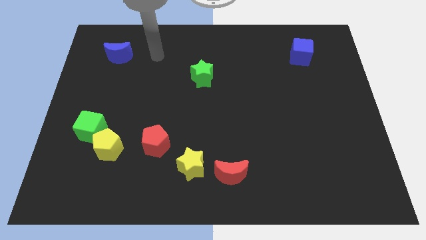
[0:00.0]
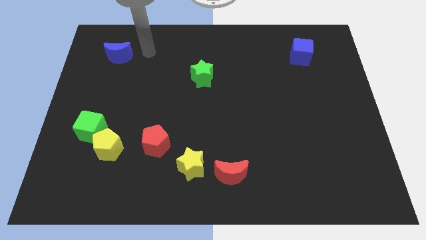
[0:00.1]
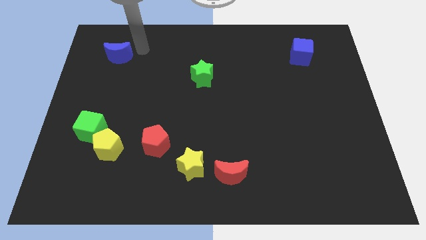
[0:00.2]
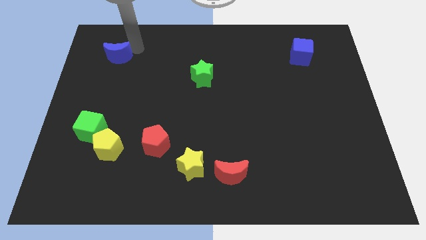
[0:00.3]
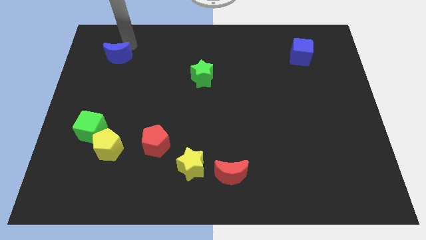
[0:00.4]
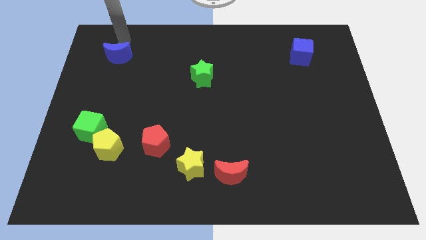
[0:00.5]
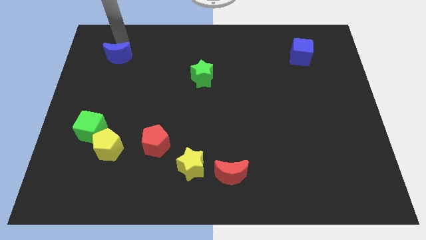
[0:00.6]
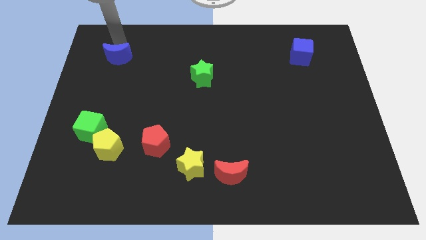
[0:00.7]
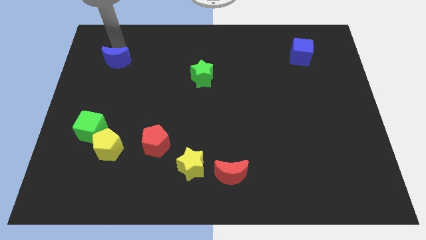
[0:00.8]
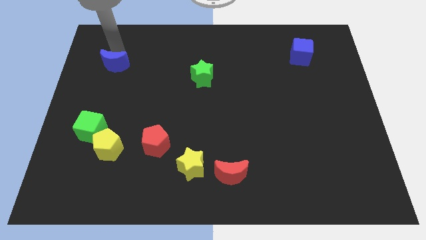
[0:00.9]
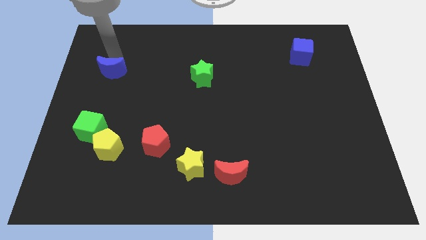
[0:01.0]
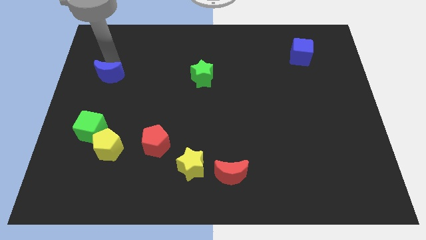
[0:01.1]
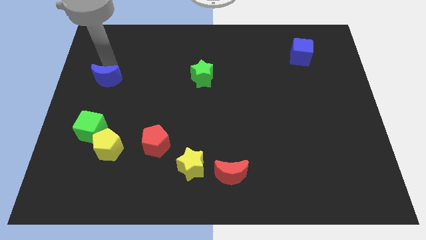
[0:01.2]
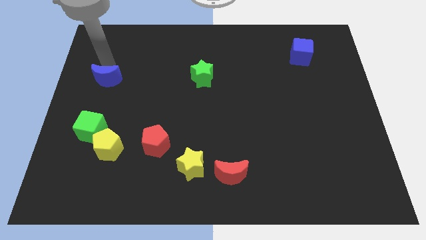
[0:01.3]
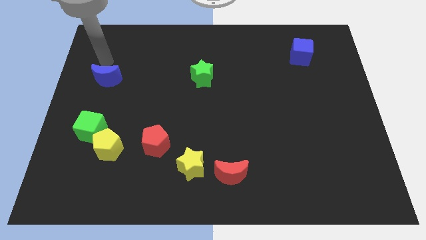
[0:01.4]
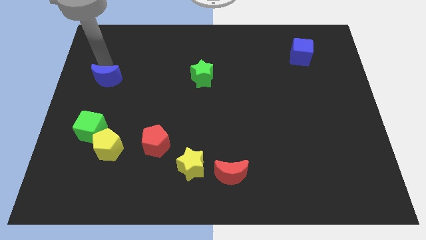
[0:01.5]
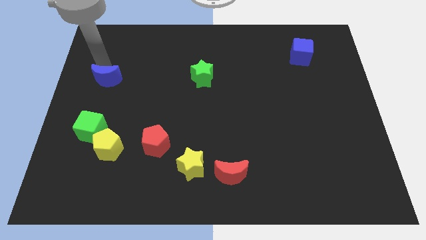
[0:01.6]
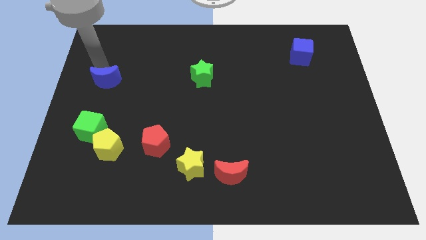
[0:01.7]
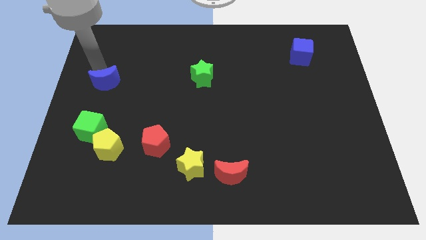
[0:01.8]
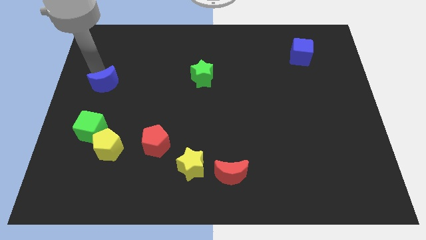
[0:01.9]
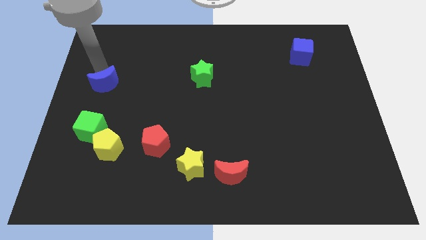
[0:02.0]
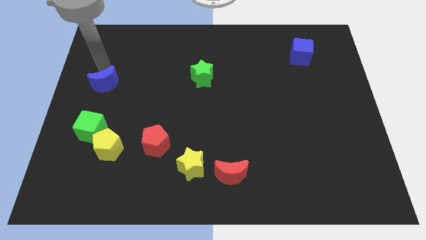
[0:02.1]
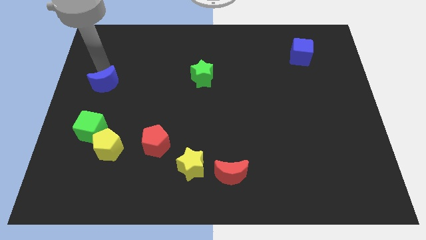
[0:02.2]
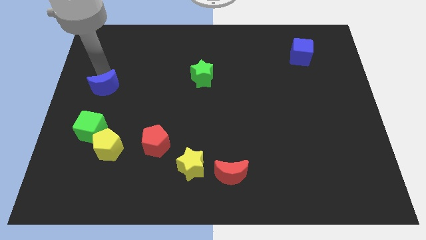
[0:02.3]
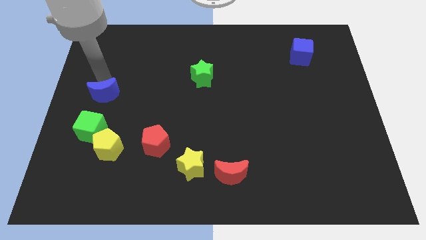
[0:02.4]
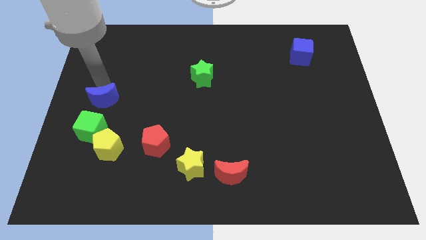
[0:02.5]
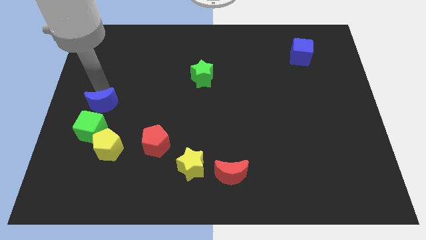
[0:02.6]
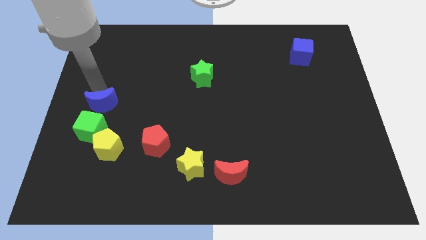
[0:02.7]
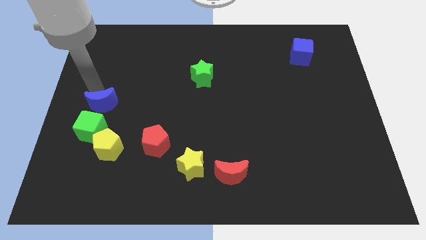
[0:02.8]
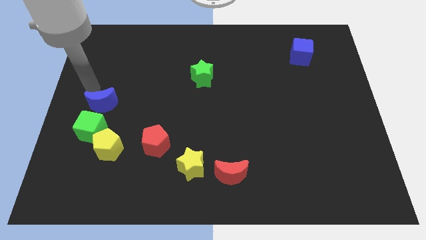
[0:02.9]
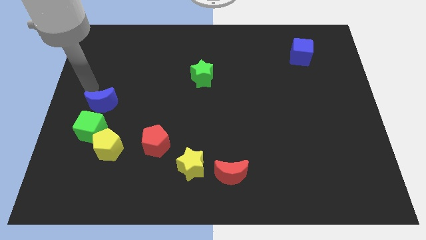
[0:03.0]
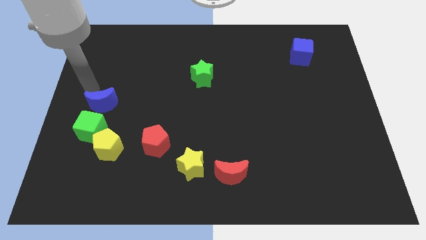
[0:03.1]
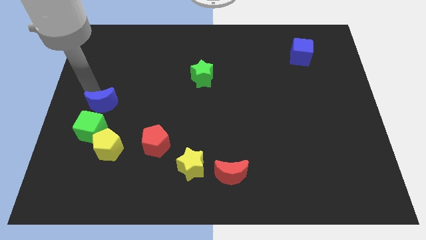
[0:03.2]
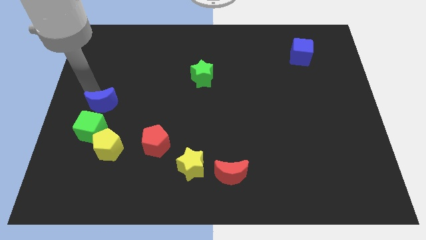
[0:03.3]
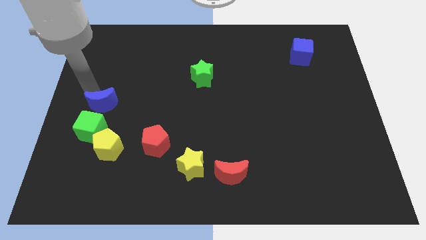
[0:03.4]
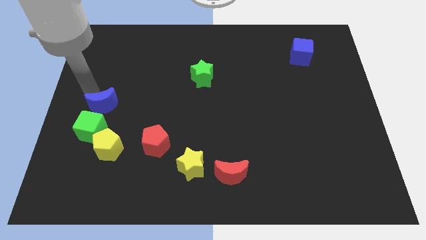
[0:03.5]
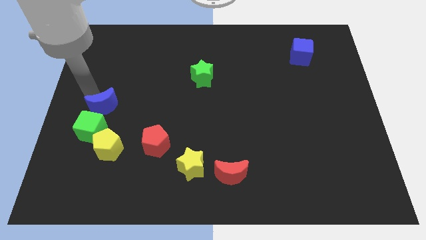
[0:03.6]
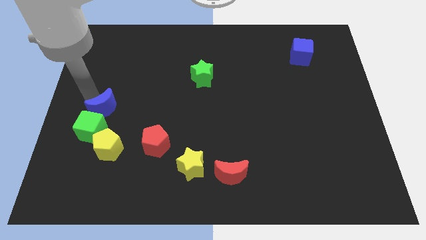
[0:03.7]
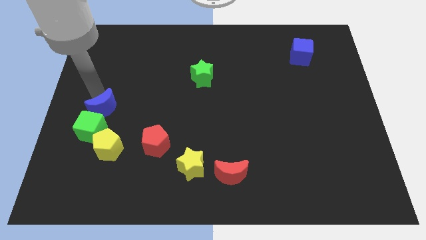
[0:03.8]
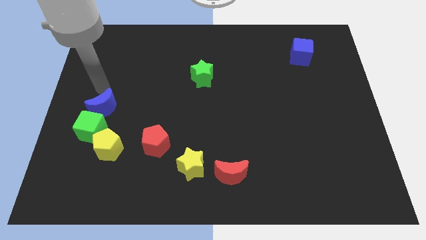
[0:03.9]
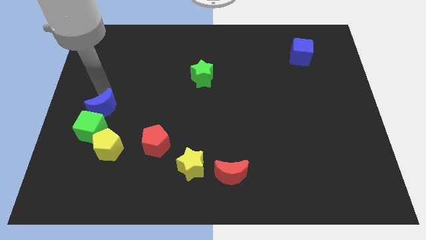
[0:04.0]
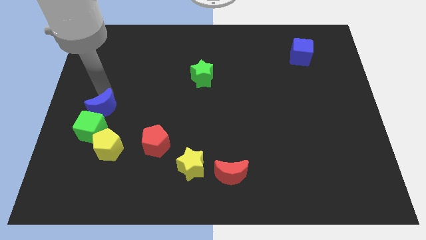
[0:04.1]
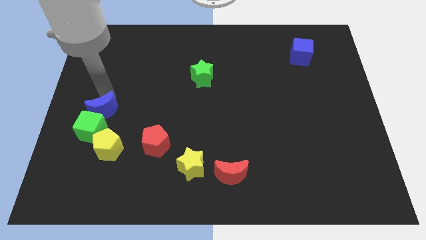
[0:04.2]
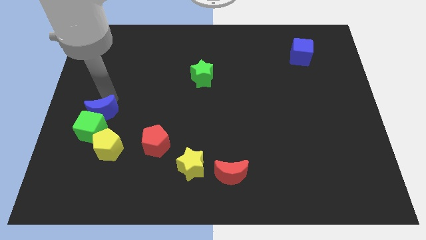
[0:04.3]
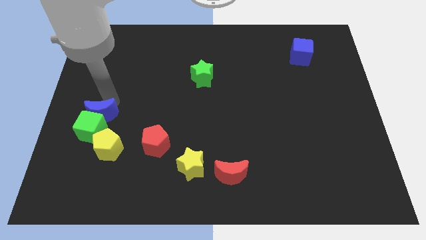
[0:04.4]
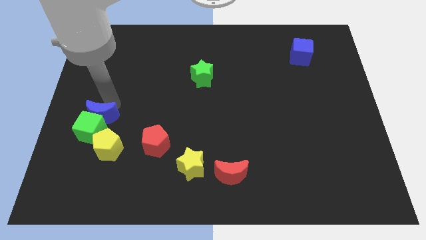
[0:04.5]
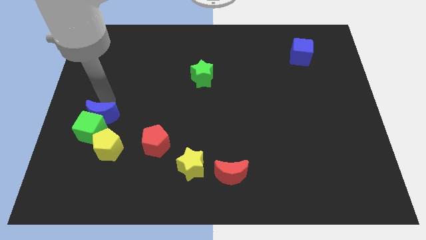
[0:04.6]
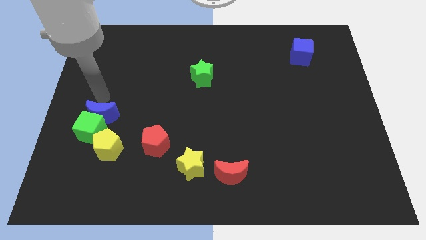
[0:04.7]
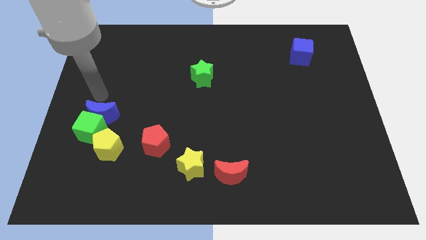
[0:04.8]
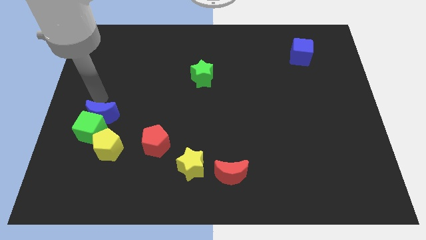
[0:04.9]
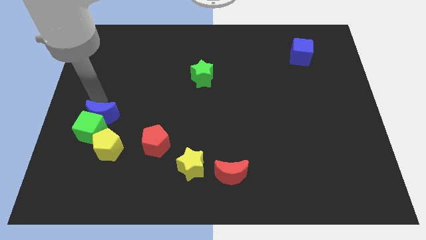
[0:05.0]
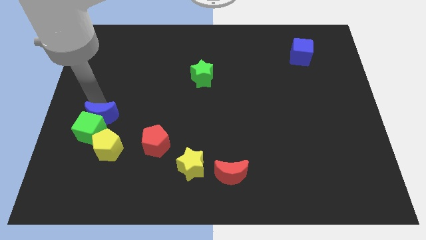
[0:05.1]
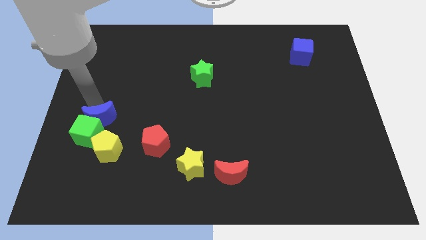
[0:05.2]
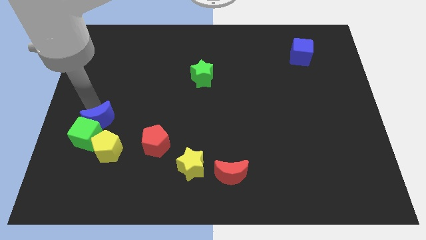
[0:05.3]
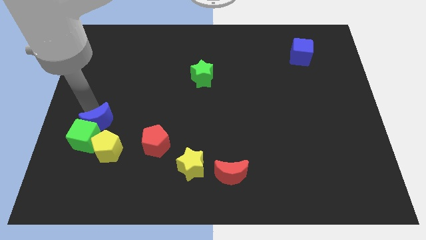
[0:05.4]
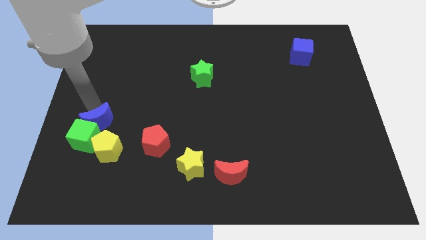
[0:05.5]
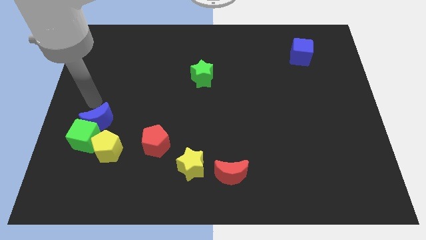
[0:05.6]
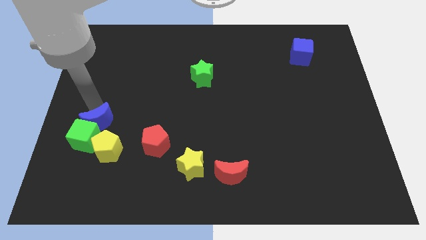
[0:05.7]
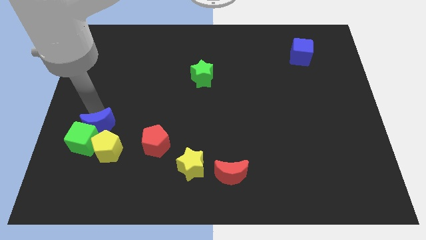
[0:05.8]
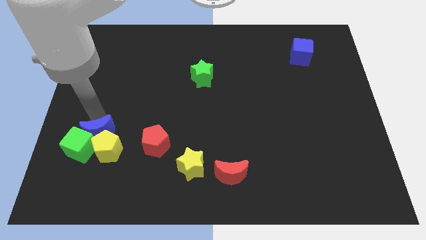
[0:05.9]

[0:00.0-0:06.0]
put the blue moon towards the yellow pentagon

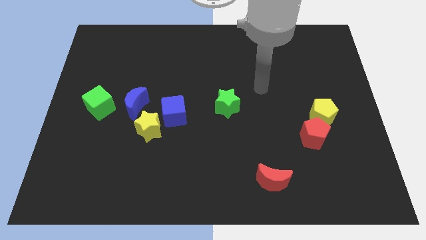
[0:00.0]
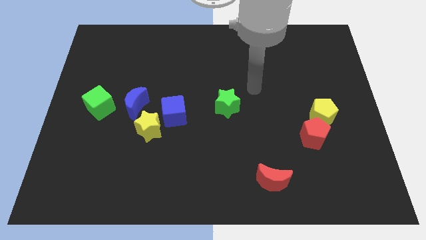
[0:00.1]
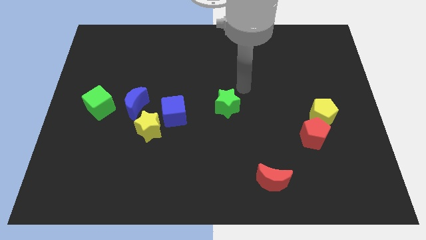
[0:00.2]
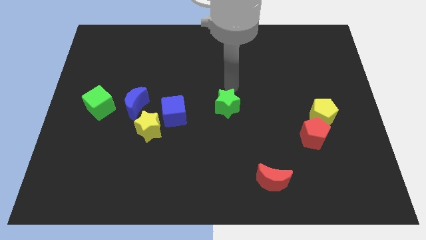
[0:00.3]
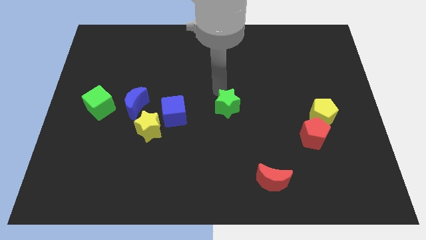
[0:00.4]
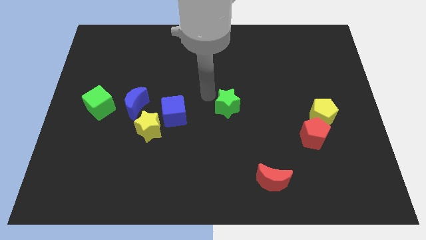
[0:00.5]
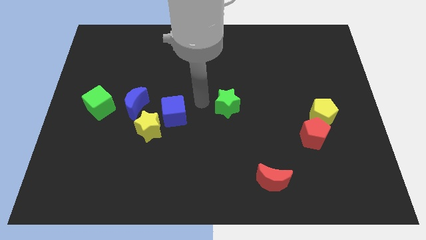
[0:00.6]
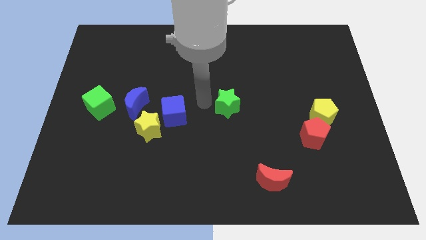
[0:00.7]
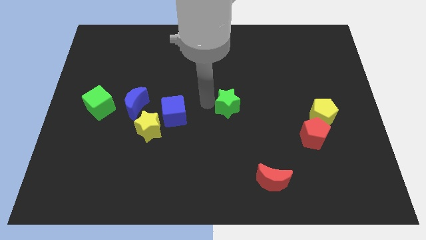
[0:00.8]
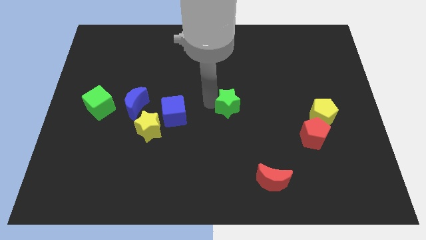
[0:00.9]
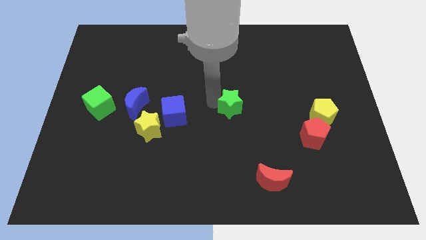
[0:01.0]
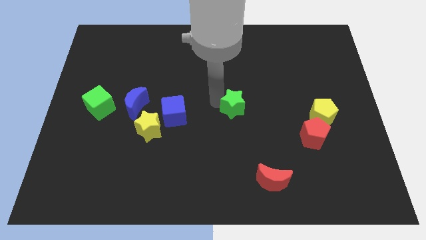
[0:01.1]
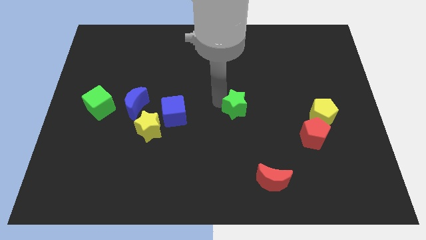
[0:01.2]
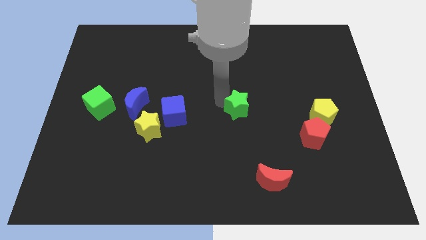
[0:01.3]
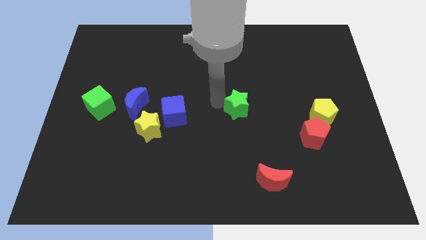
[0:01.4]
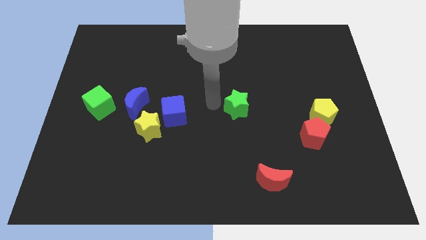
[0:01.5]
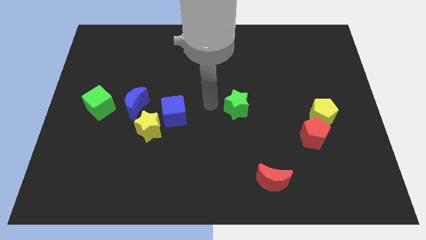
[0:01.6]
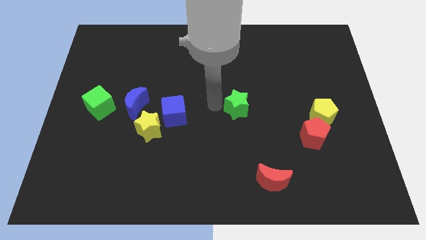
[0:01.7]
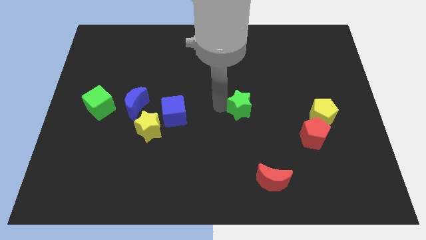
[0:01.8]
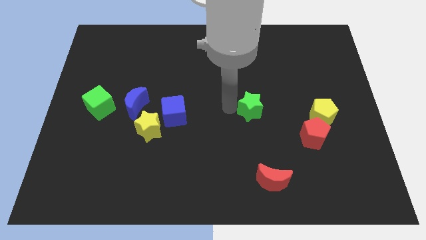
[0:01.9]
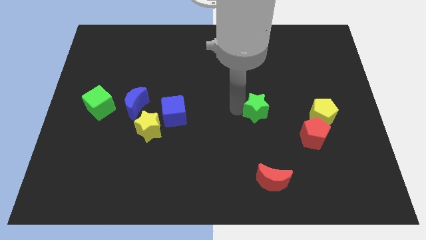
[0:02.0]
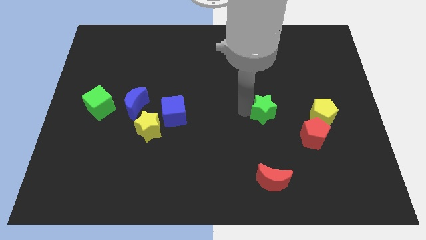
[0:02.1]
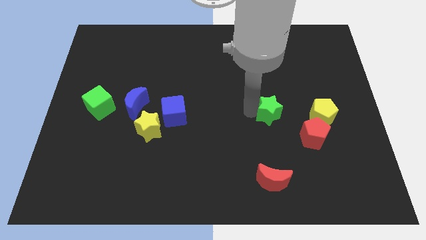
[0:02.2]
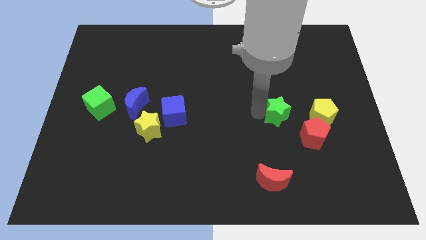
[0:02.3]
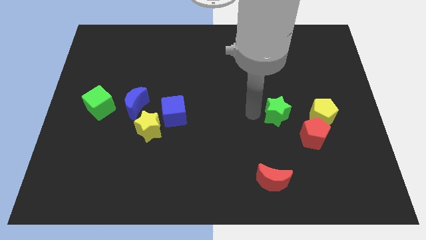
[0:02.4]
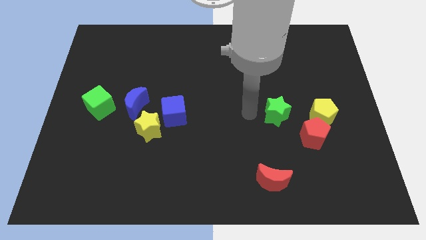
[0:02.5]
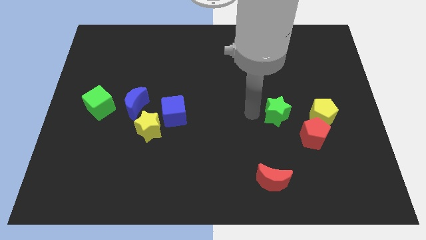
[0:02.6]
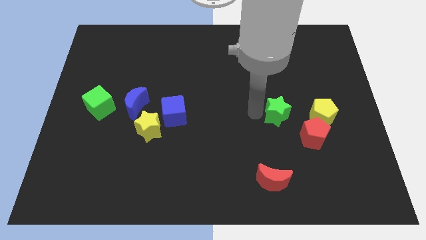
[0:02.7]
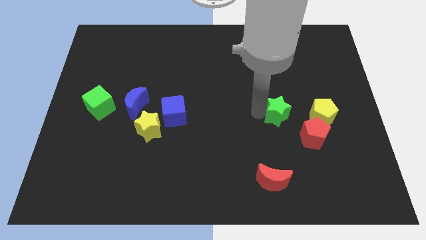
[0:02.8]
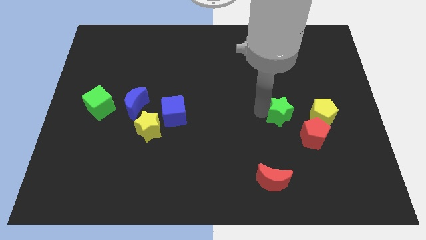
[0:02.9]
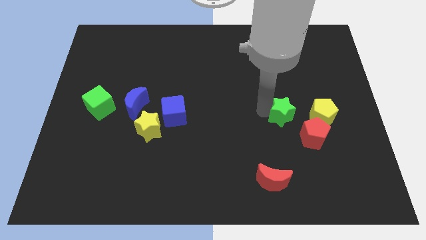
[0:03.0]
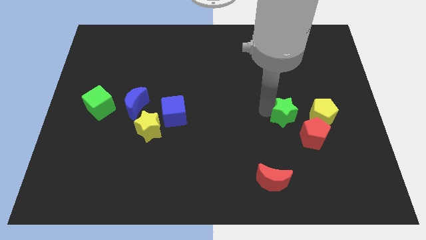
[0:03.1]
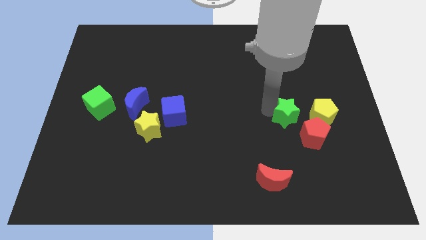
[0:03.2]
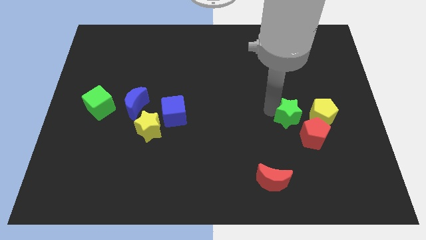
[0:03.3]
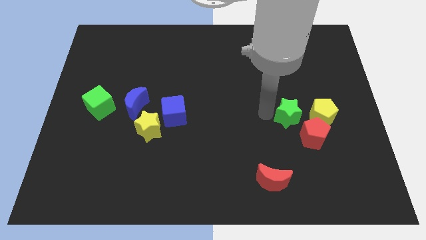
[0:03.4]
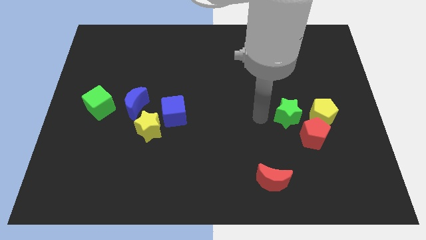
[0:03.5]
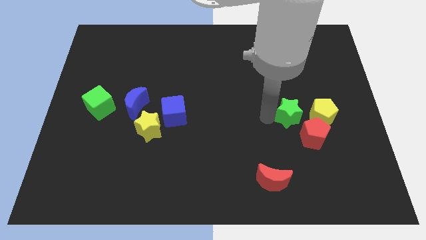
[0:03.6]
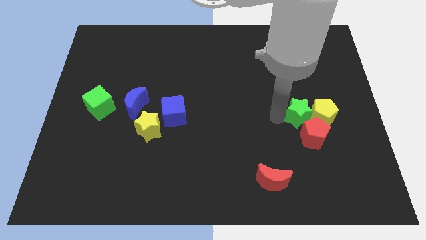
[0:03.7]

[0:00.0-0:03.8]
slide the green star to the yellow pentagon
